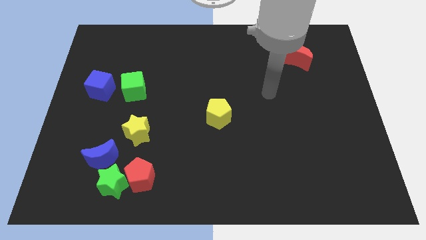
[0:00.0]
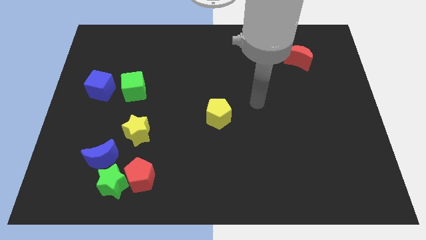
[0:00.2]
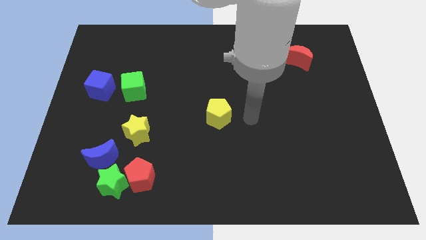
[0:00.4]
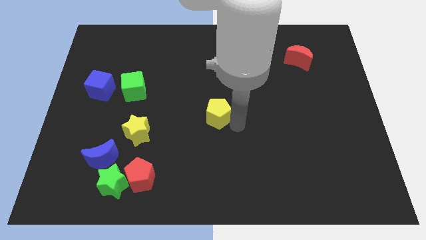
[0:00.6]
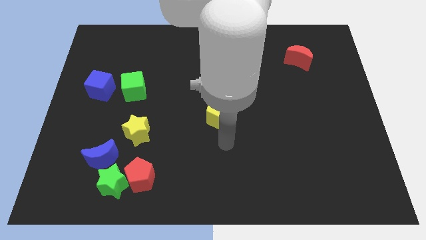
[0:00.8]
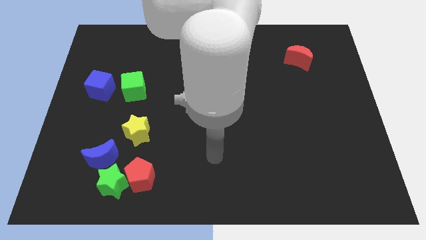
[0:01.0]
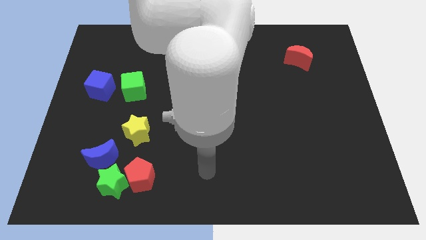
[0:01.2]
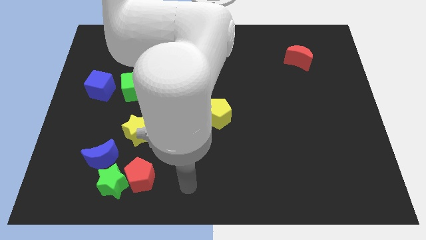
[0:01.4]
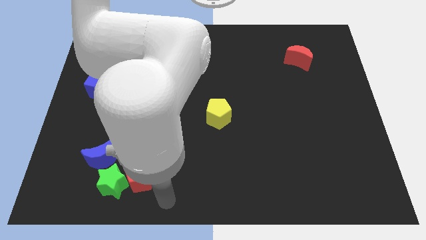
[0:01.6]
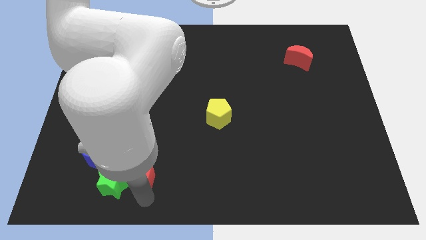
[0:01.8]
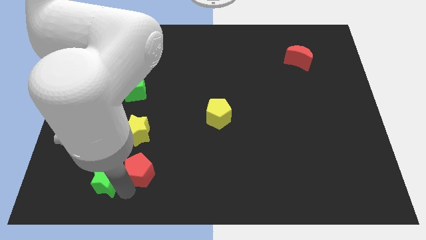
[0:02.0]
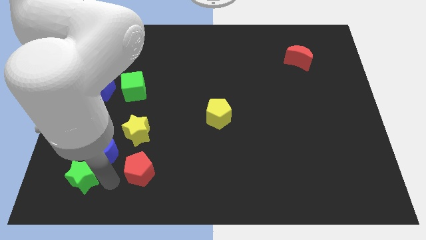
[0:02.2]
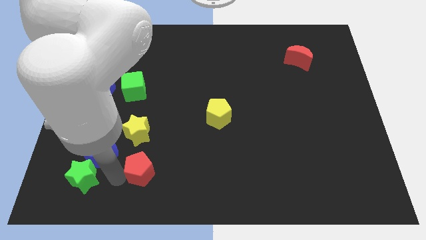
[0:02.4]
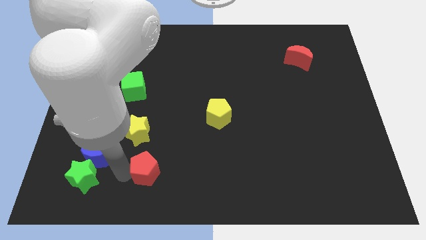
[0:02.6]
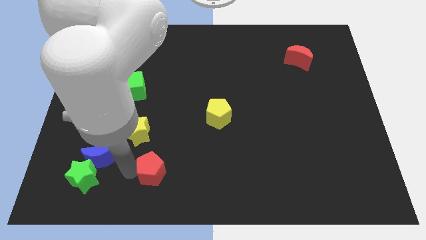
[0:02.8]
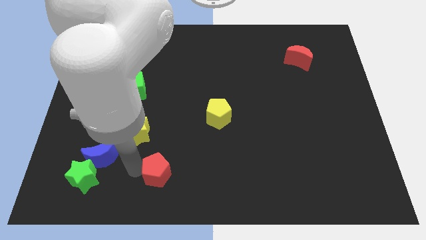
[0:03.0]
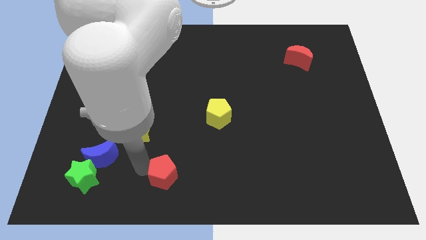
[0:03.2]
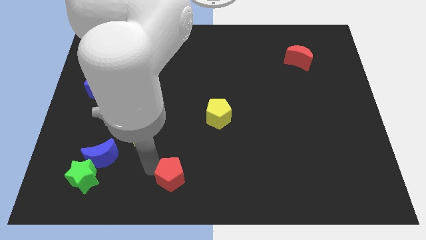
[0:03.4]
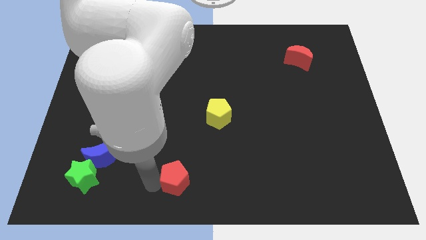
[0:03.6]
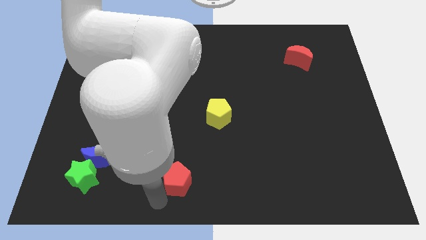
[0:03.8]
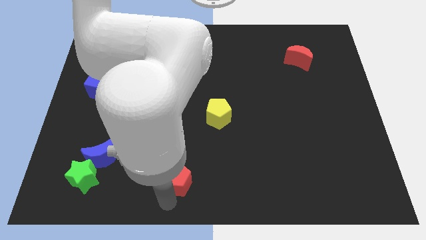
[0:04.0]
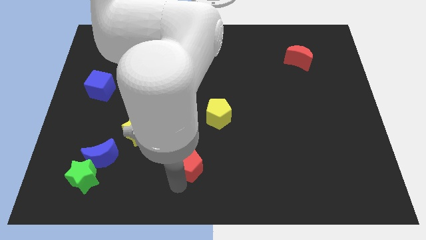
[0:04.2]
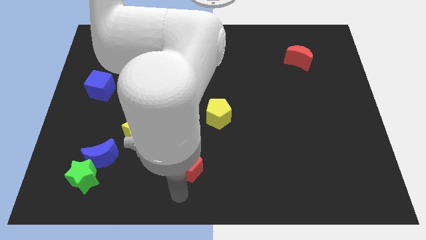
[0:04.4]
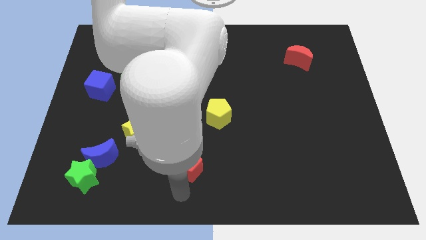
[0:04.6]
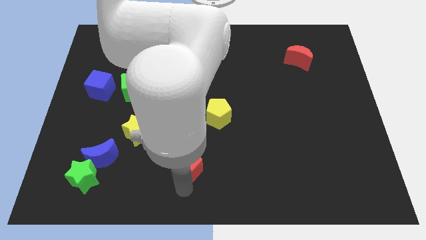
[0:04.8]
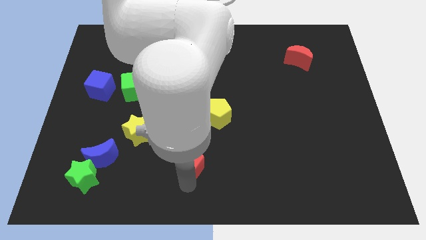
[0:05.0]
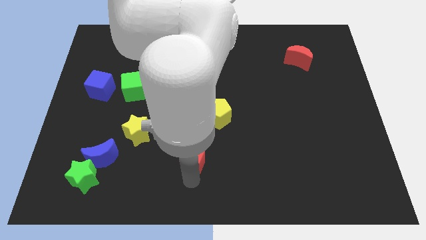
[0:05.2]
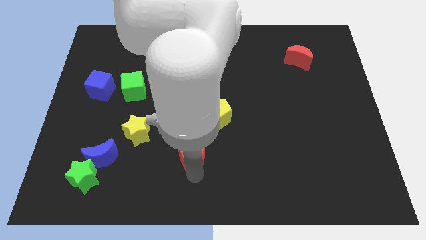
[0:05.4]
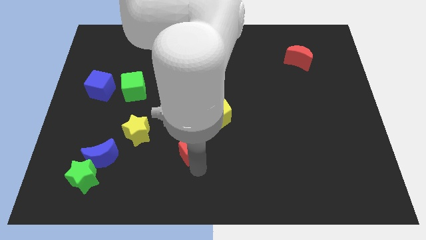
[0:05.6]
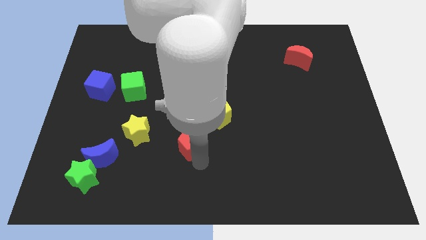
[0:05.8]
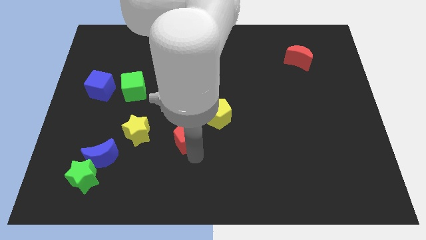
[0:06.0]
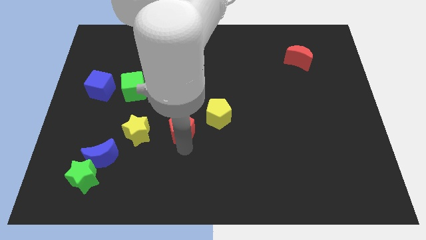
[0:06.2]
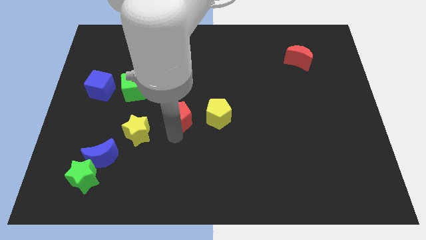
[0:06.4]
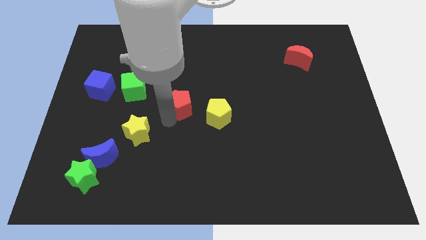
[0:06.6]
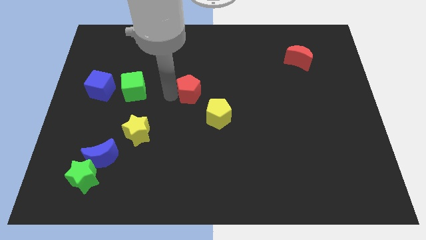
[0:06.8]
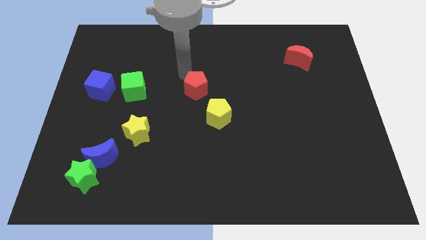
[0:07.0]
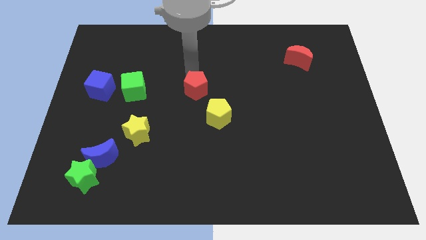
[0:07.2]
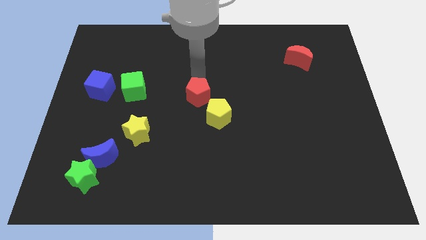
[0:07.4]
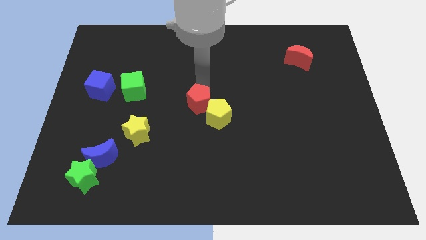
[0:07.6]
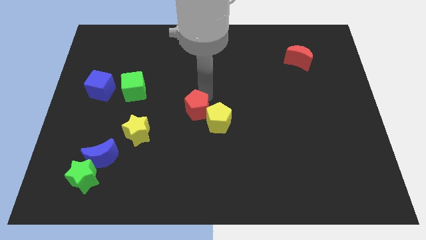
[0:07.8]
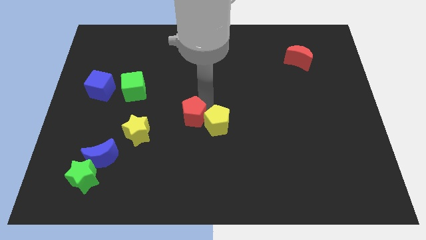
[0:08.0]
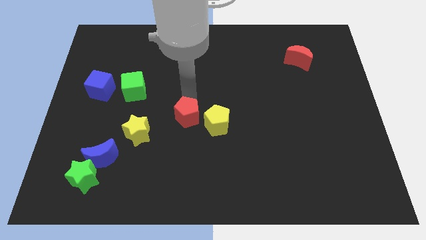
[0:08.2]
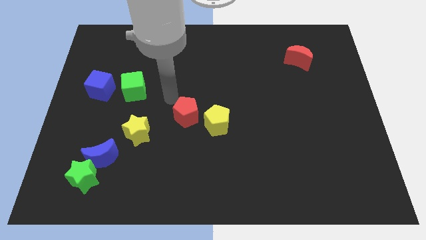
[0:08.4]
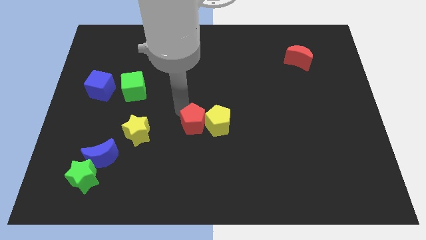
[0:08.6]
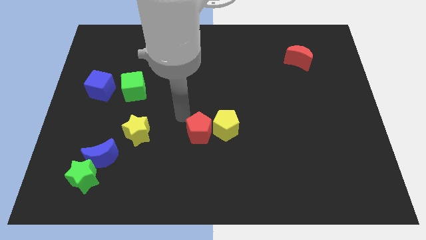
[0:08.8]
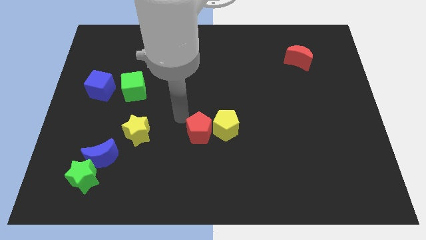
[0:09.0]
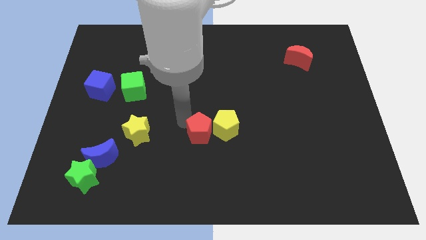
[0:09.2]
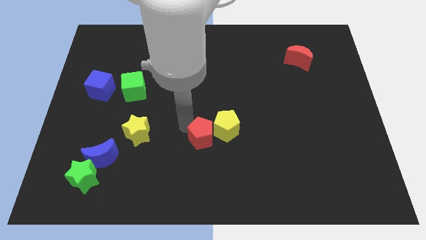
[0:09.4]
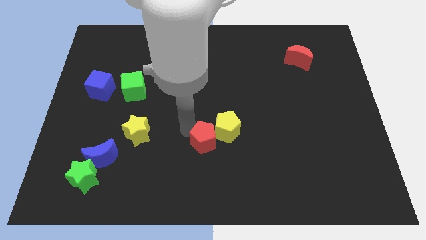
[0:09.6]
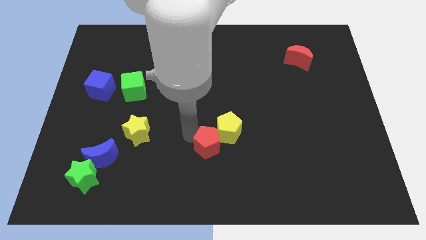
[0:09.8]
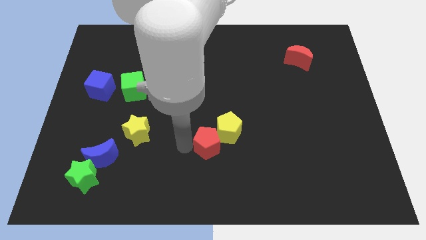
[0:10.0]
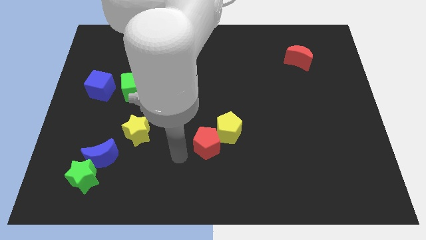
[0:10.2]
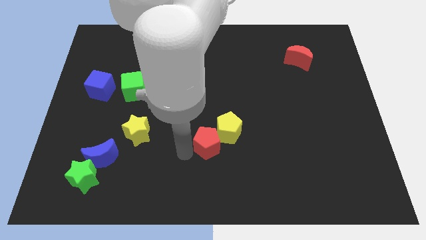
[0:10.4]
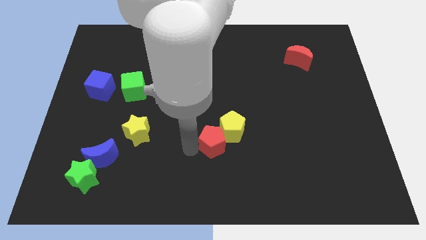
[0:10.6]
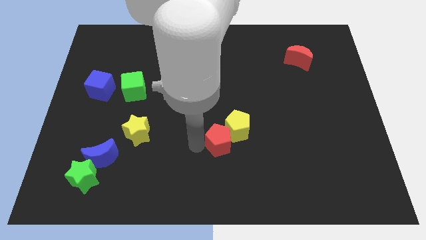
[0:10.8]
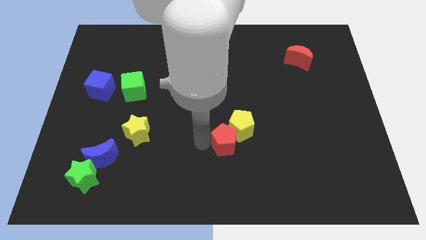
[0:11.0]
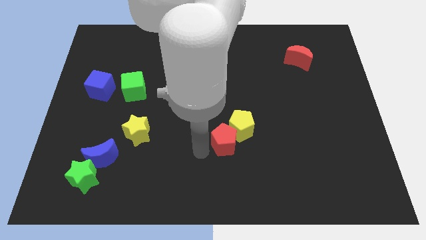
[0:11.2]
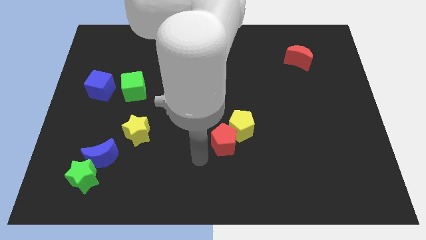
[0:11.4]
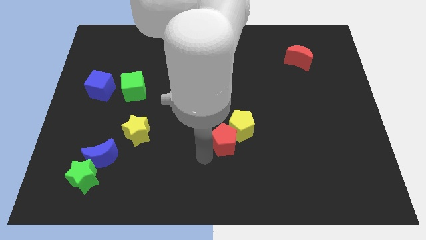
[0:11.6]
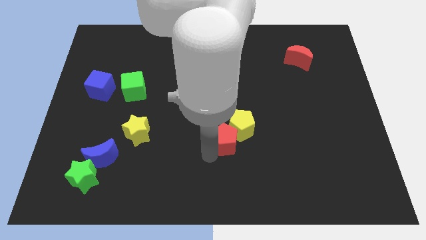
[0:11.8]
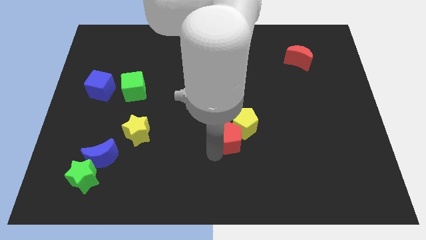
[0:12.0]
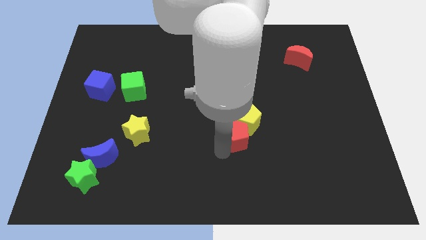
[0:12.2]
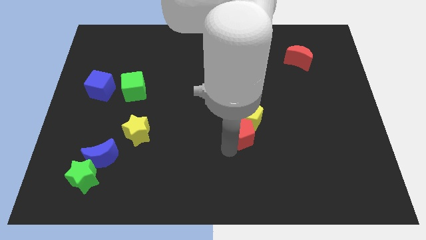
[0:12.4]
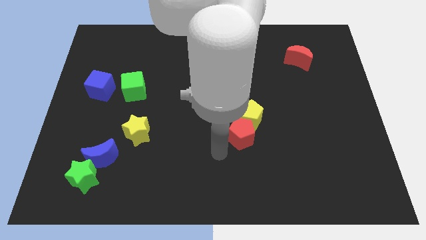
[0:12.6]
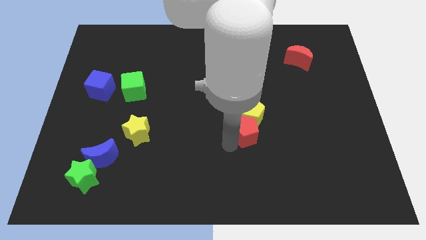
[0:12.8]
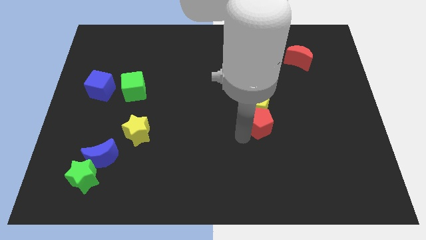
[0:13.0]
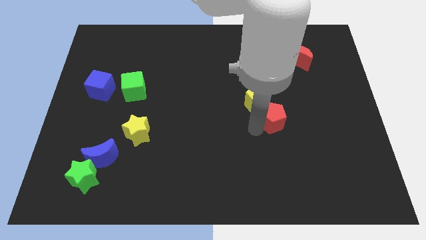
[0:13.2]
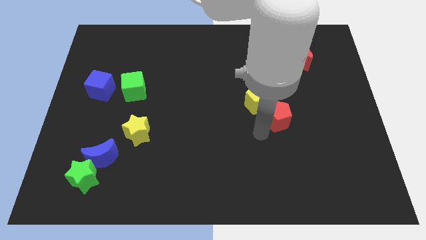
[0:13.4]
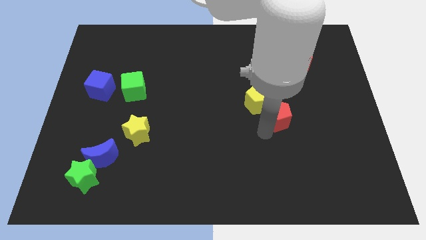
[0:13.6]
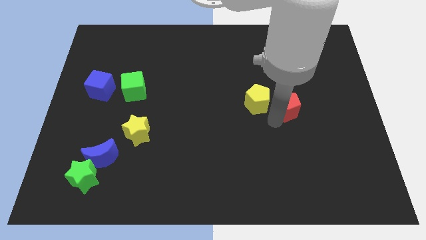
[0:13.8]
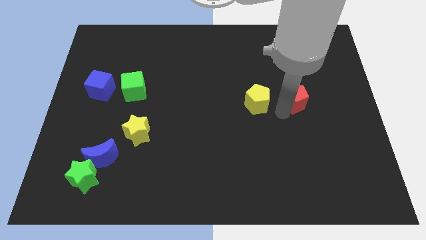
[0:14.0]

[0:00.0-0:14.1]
put the red pentagon to the bottom of the red moon

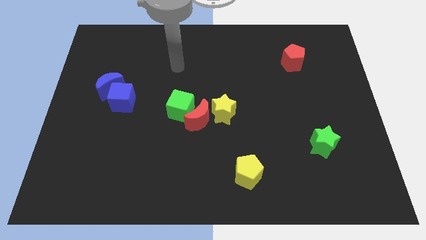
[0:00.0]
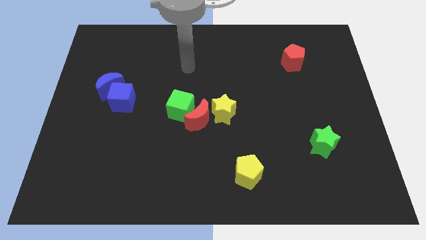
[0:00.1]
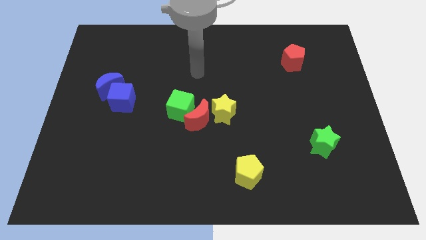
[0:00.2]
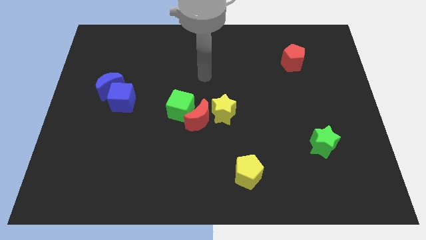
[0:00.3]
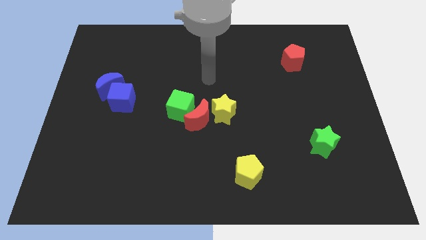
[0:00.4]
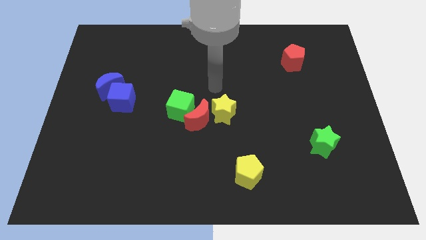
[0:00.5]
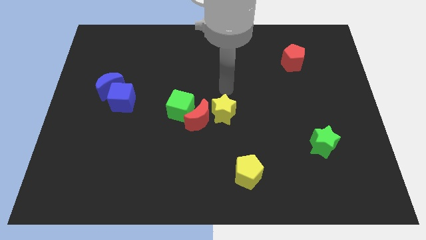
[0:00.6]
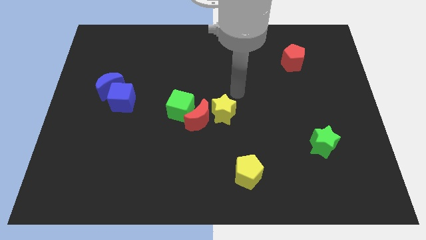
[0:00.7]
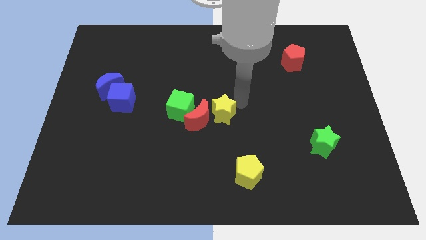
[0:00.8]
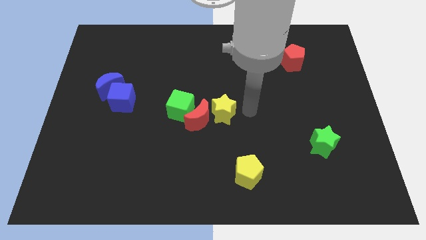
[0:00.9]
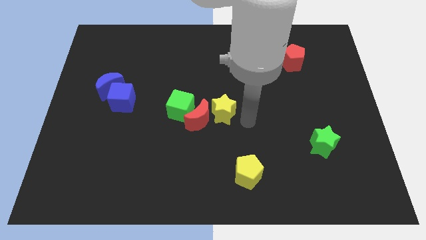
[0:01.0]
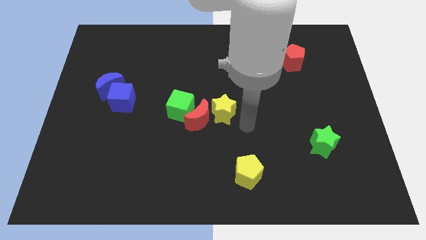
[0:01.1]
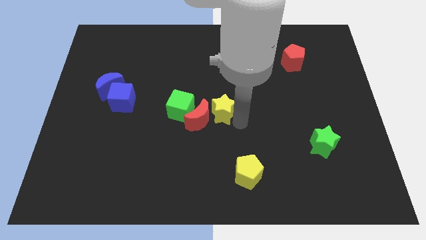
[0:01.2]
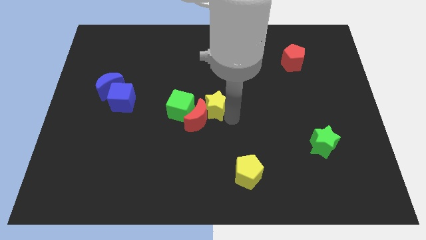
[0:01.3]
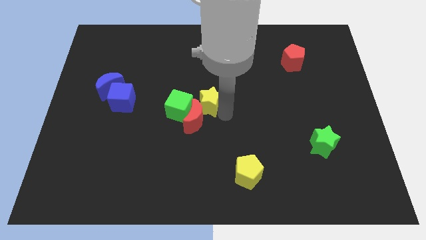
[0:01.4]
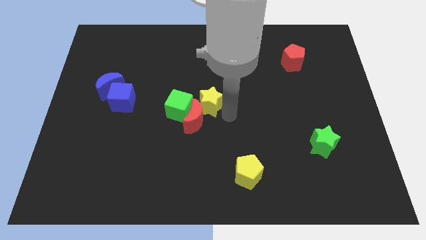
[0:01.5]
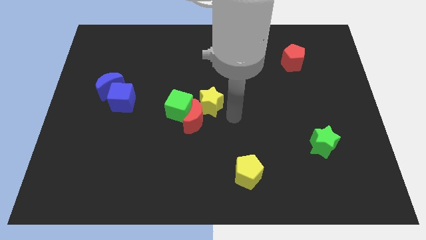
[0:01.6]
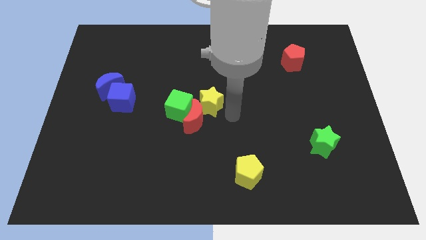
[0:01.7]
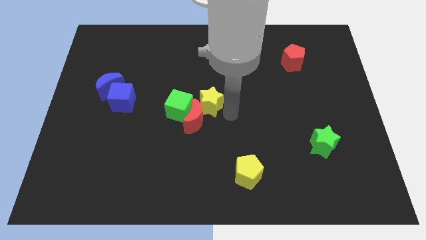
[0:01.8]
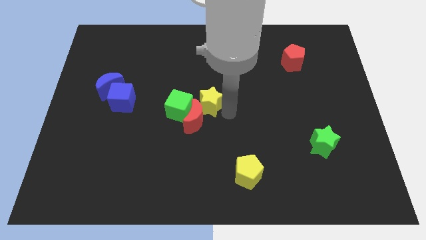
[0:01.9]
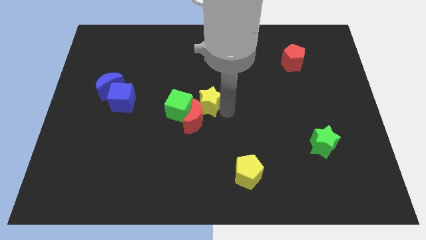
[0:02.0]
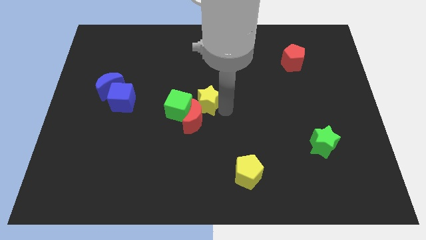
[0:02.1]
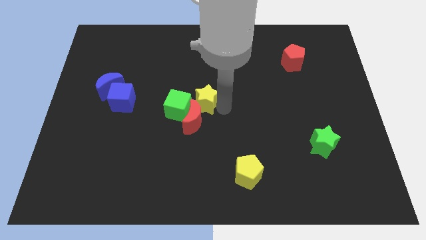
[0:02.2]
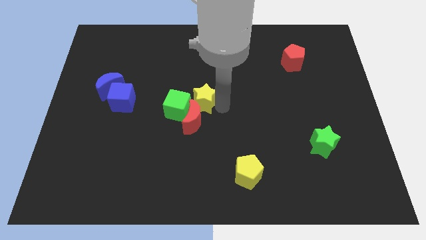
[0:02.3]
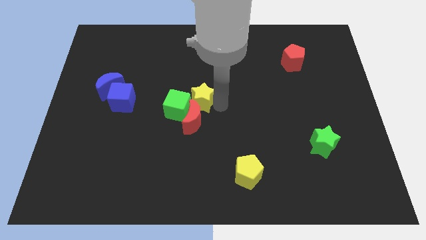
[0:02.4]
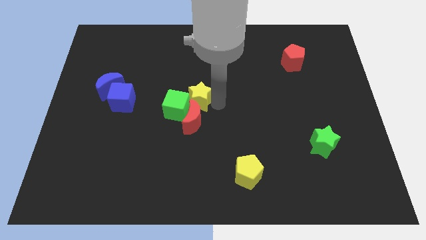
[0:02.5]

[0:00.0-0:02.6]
slide the yellow star to the top left side of the red moon
